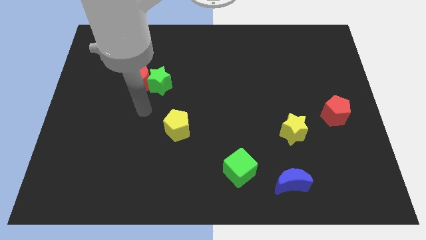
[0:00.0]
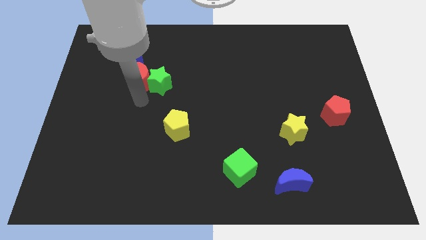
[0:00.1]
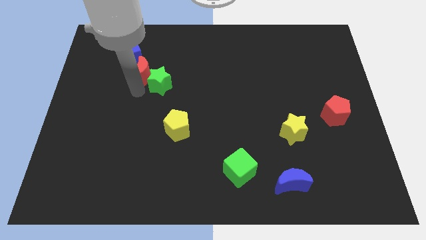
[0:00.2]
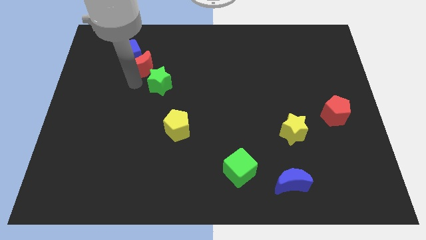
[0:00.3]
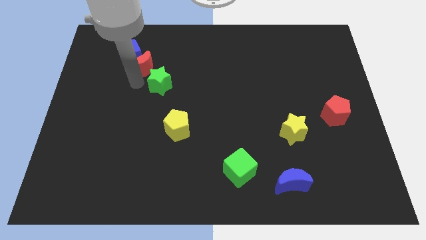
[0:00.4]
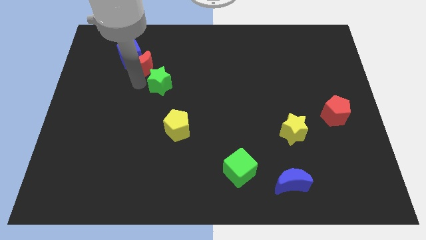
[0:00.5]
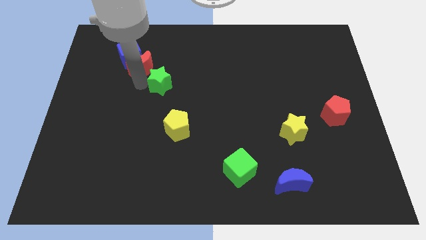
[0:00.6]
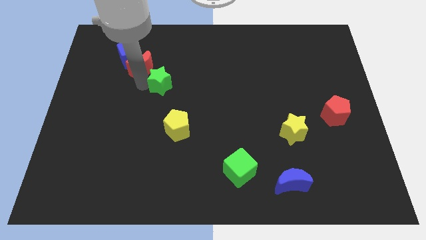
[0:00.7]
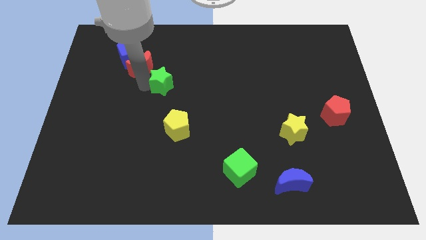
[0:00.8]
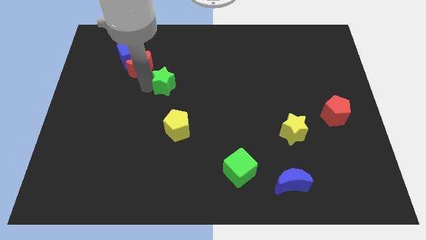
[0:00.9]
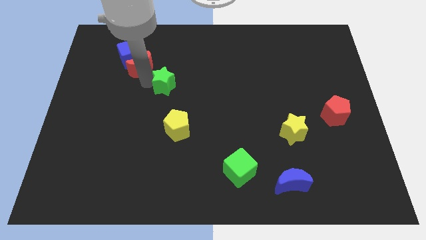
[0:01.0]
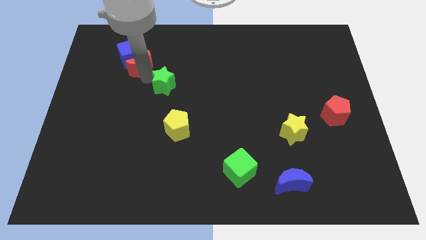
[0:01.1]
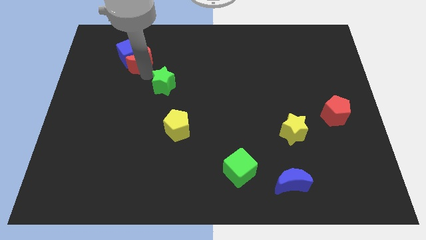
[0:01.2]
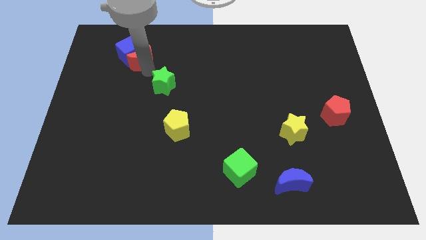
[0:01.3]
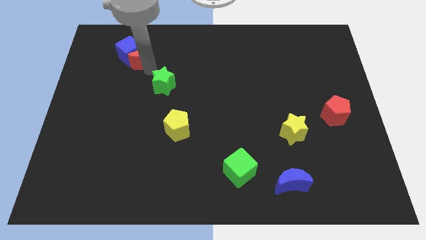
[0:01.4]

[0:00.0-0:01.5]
pull the green star apart from the red moon

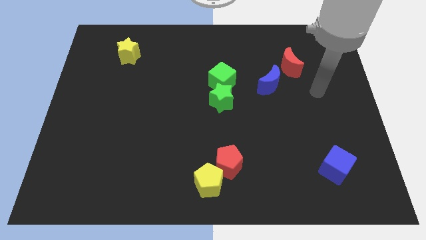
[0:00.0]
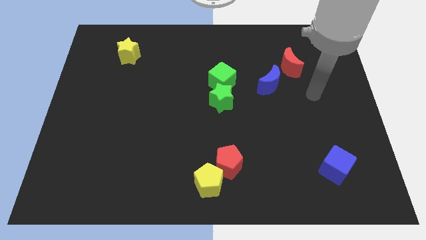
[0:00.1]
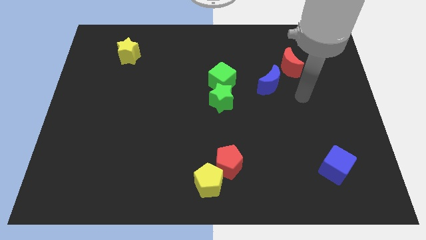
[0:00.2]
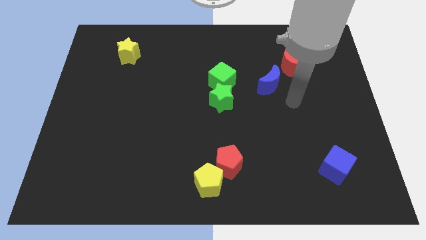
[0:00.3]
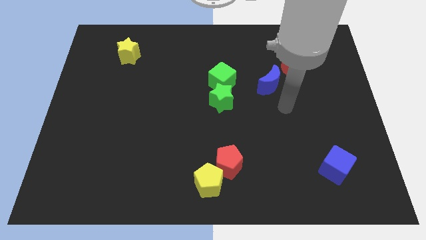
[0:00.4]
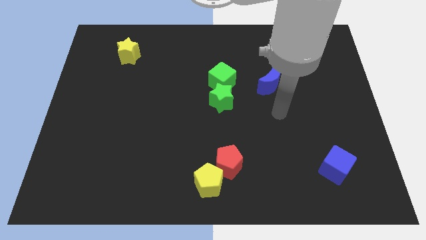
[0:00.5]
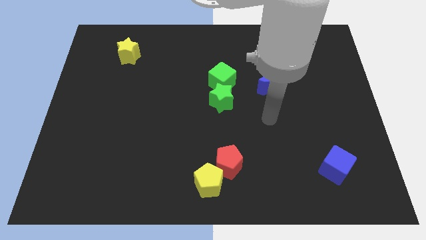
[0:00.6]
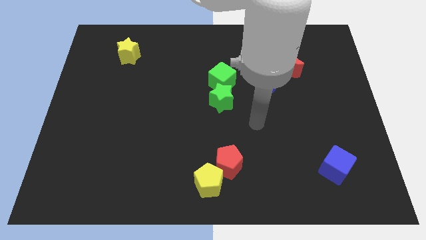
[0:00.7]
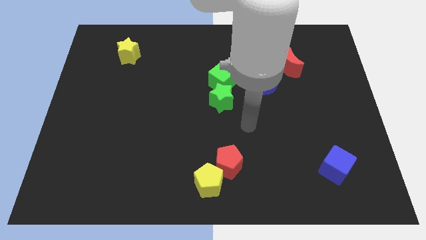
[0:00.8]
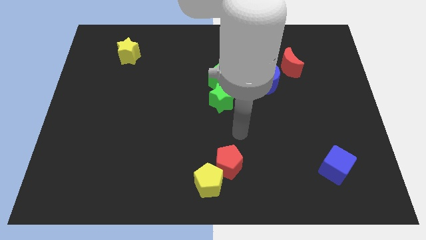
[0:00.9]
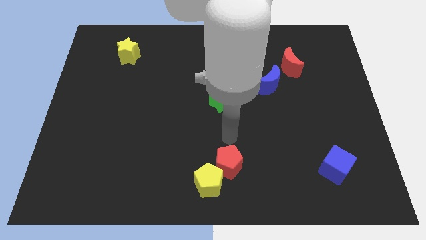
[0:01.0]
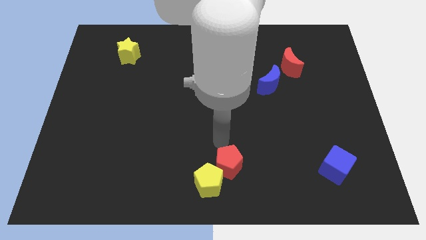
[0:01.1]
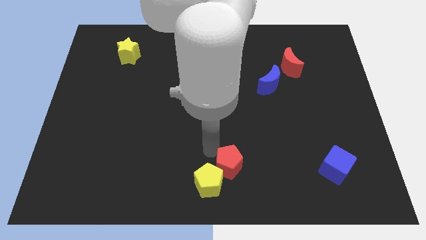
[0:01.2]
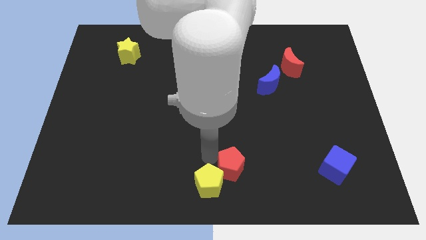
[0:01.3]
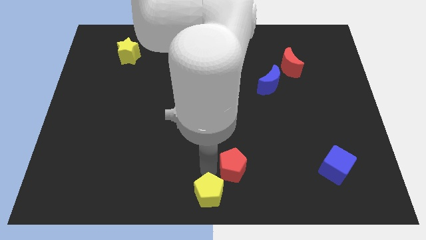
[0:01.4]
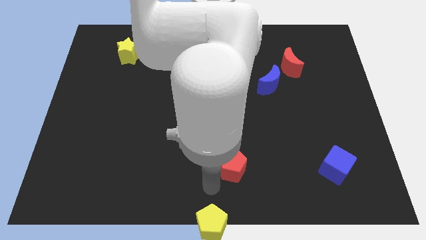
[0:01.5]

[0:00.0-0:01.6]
pull the red pentagon apart from the yellow pentagon

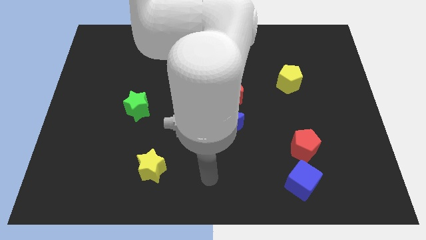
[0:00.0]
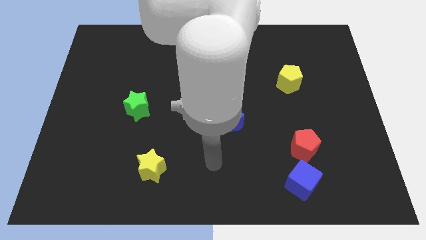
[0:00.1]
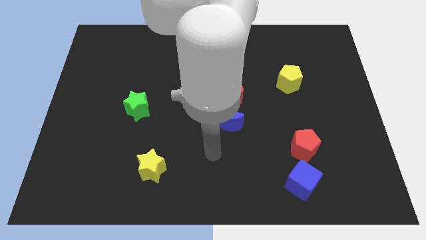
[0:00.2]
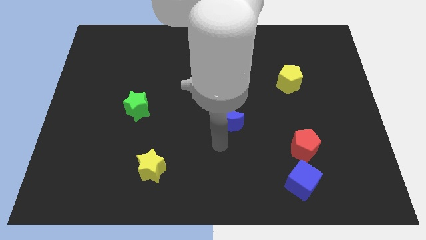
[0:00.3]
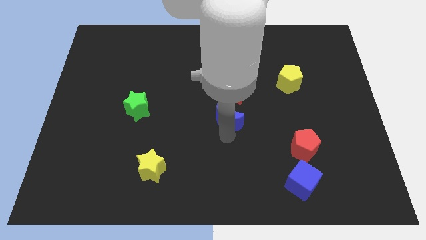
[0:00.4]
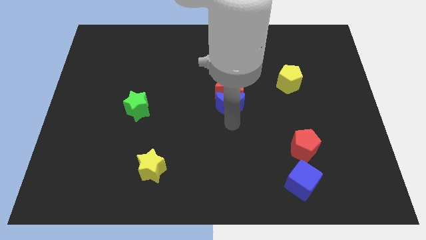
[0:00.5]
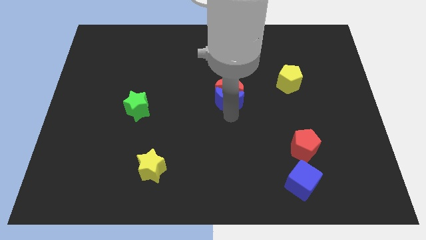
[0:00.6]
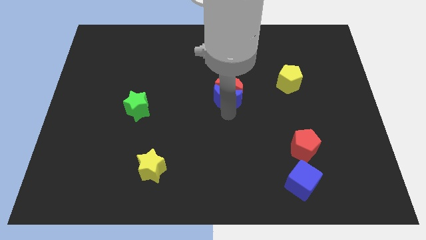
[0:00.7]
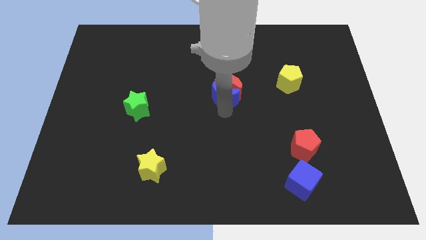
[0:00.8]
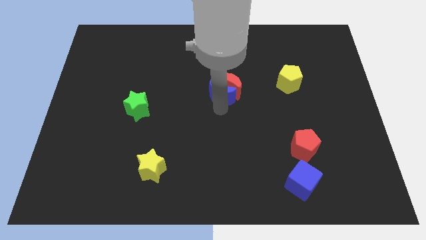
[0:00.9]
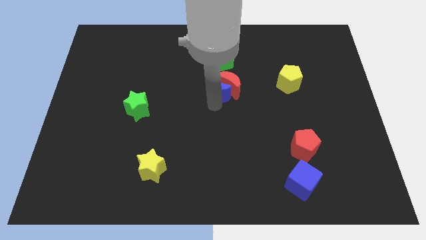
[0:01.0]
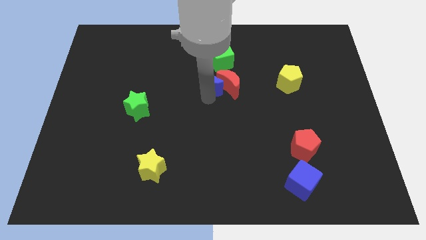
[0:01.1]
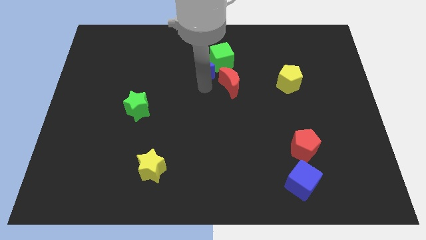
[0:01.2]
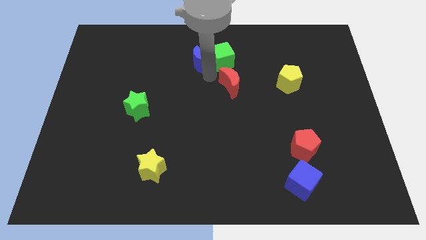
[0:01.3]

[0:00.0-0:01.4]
move the red moon away from the blue moon

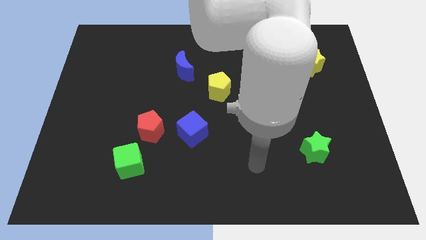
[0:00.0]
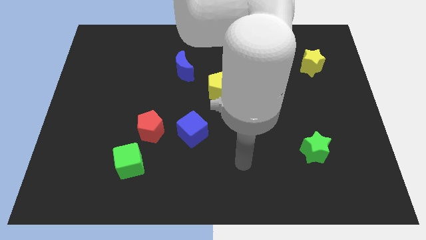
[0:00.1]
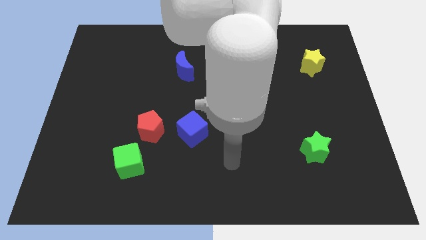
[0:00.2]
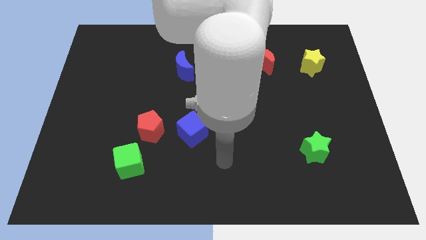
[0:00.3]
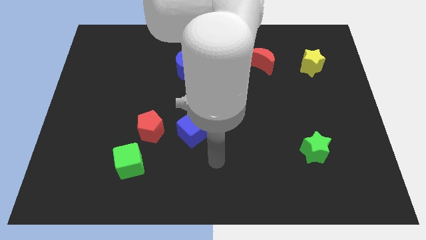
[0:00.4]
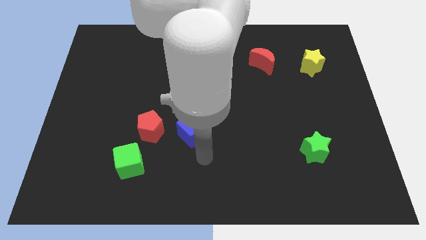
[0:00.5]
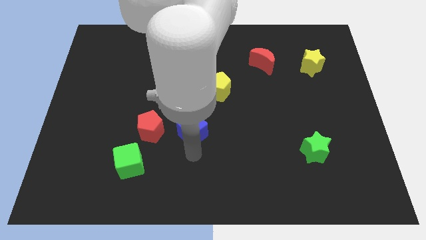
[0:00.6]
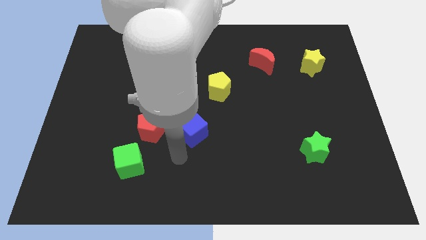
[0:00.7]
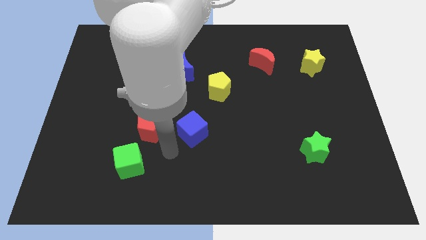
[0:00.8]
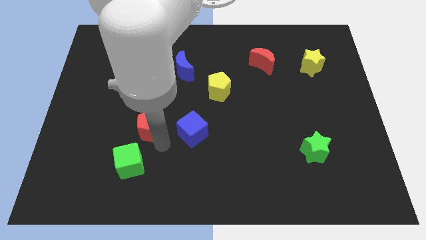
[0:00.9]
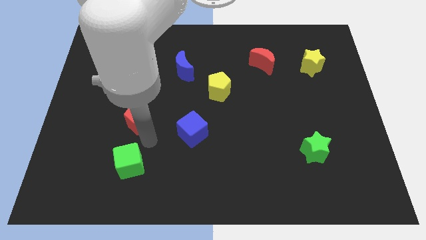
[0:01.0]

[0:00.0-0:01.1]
separate the green cube from the red pentagon

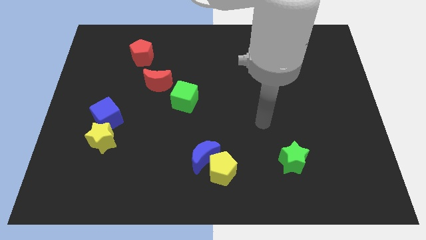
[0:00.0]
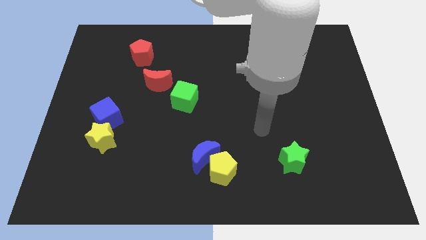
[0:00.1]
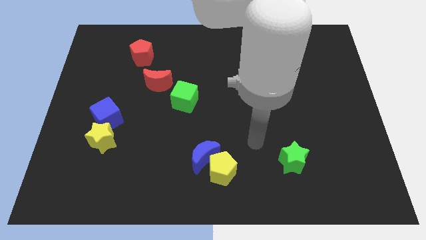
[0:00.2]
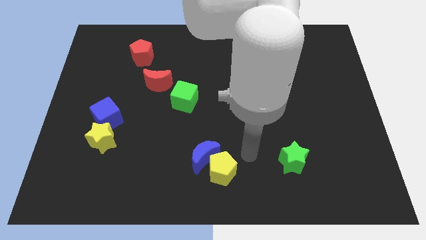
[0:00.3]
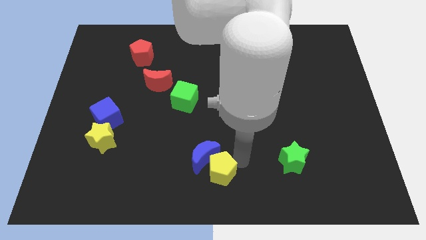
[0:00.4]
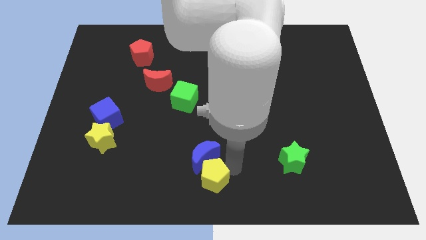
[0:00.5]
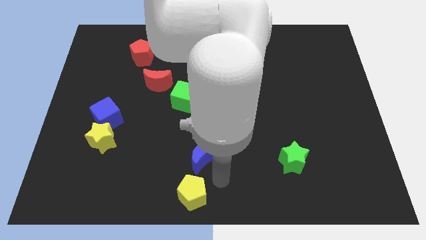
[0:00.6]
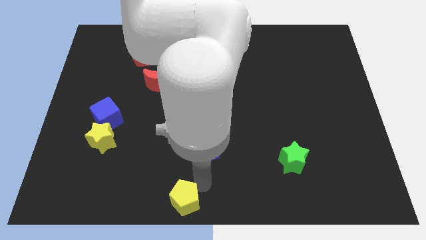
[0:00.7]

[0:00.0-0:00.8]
separate the blue moon from the yellow pentagon

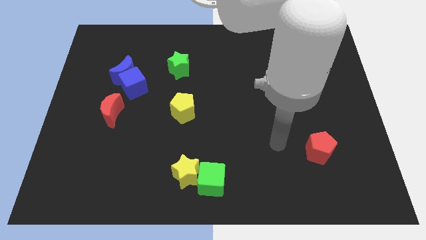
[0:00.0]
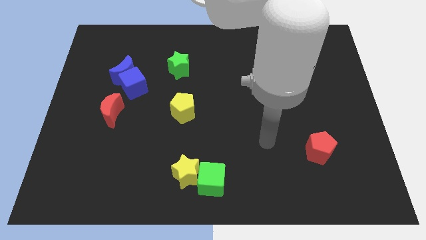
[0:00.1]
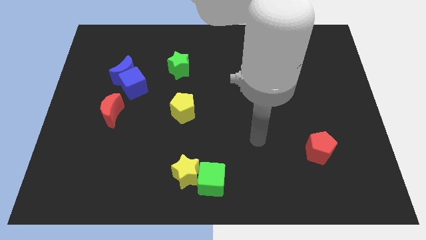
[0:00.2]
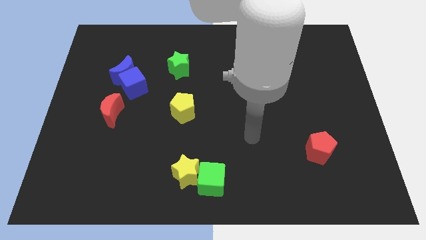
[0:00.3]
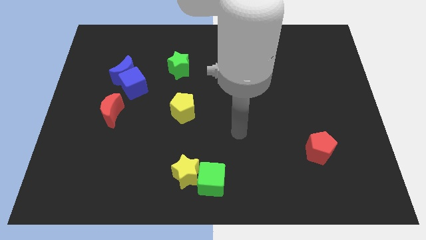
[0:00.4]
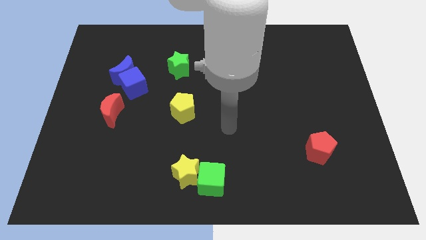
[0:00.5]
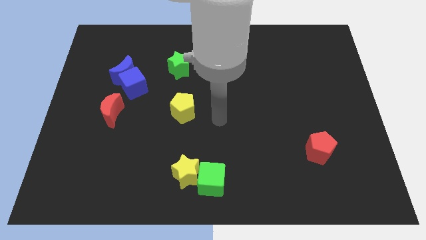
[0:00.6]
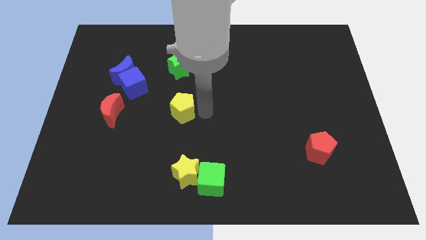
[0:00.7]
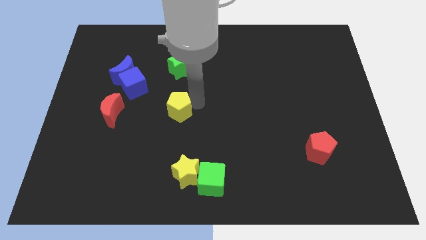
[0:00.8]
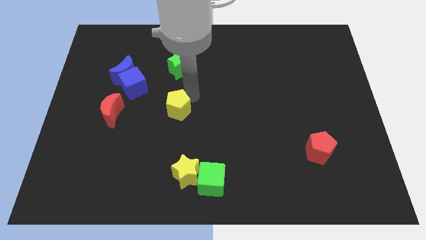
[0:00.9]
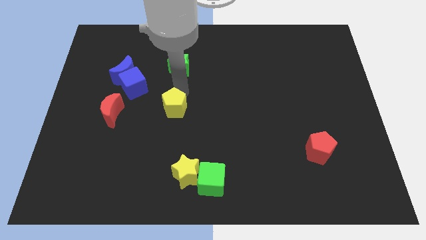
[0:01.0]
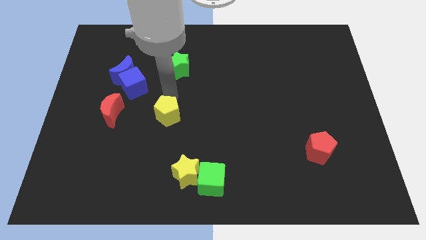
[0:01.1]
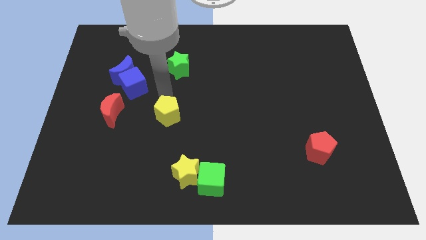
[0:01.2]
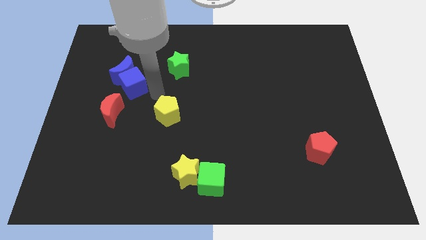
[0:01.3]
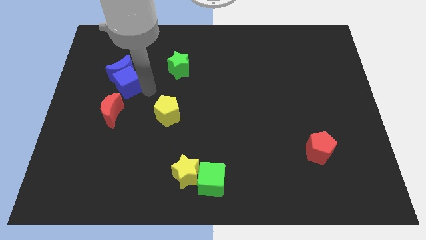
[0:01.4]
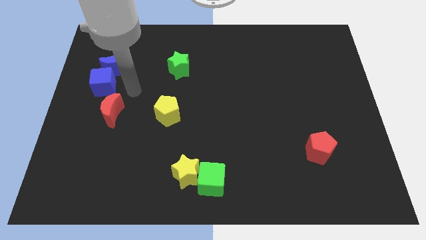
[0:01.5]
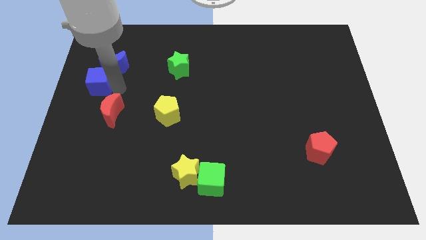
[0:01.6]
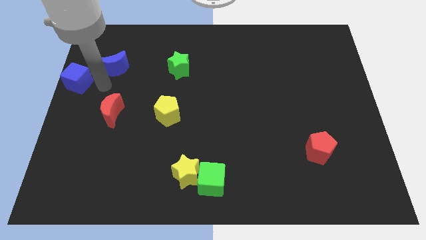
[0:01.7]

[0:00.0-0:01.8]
separate the blue moon from the blue cube

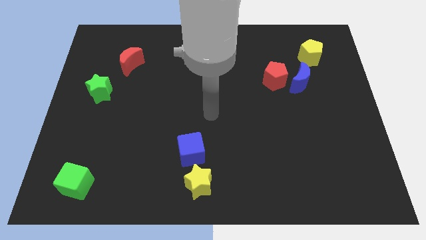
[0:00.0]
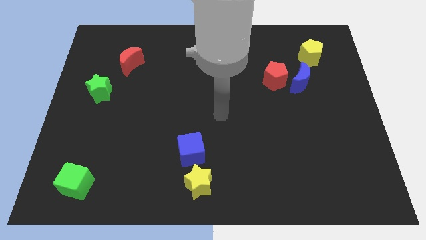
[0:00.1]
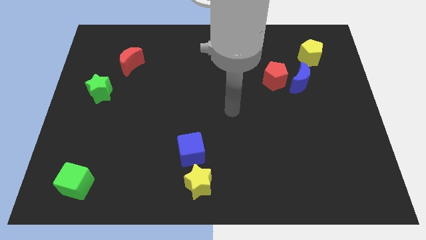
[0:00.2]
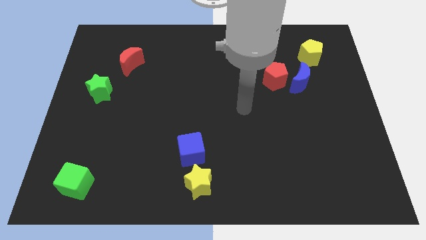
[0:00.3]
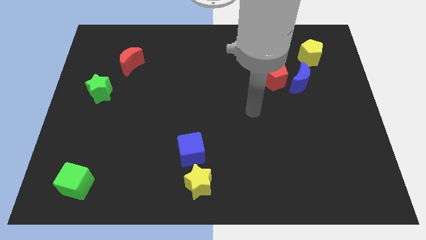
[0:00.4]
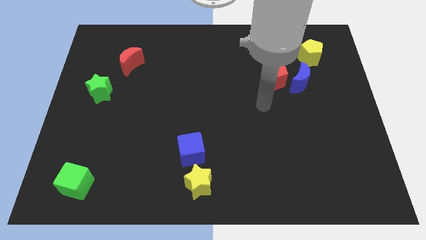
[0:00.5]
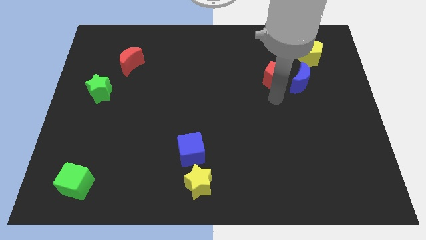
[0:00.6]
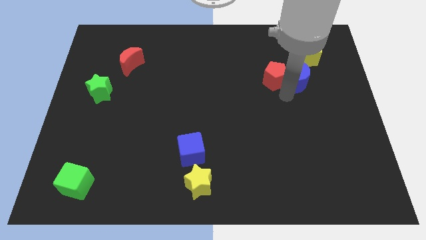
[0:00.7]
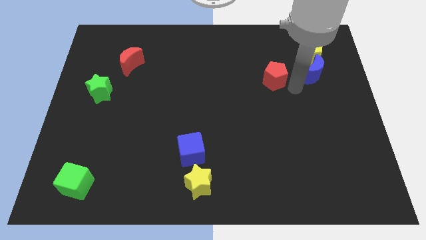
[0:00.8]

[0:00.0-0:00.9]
move the red pentagon away from the blue moon
